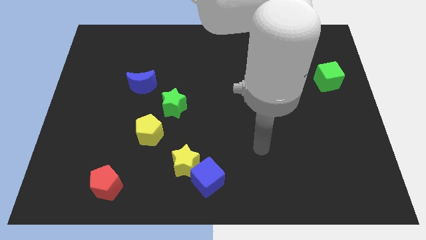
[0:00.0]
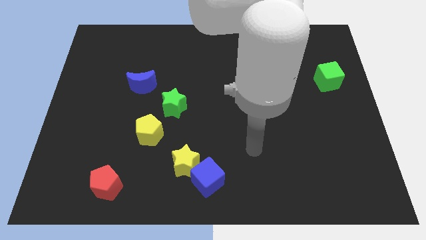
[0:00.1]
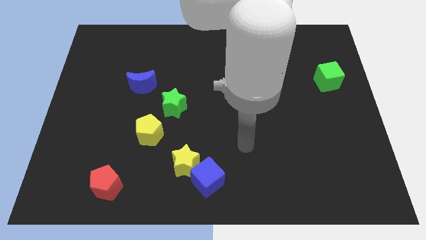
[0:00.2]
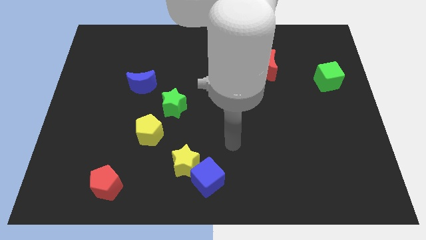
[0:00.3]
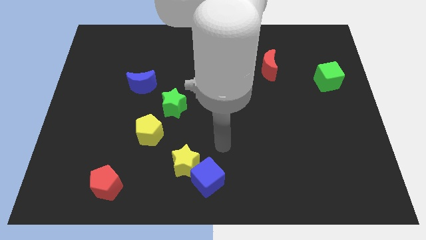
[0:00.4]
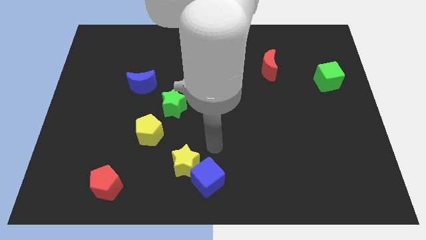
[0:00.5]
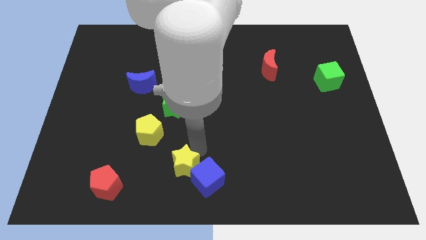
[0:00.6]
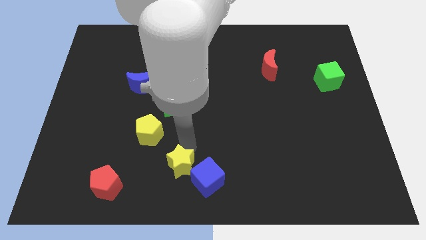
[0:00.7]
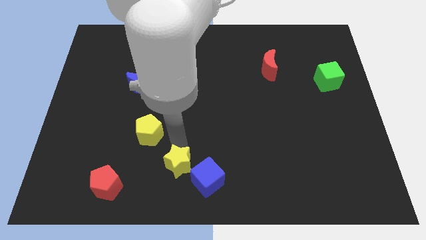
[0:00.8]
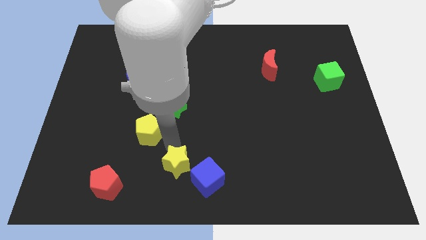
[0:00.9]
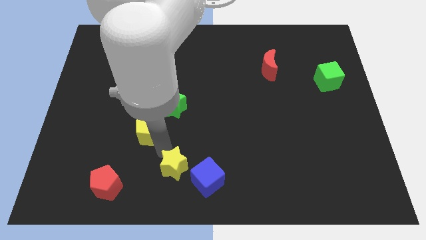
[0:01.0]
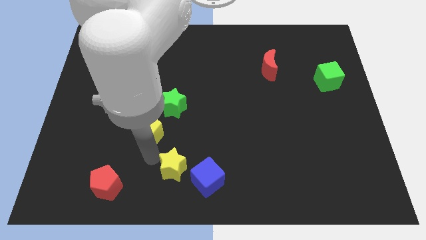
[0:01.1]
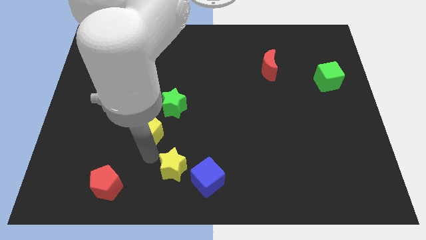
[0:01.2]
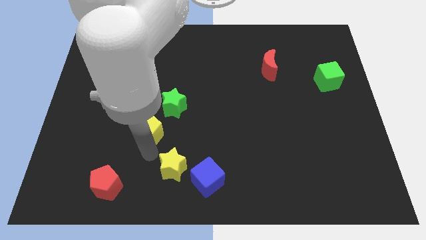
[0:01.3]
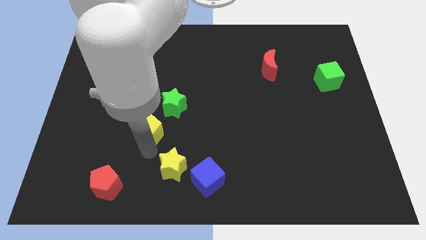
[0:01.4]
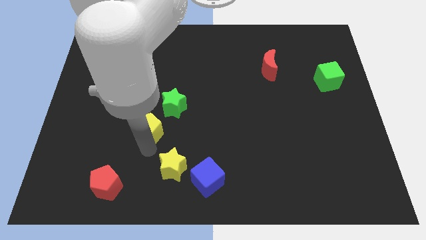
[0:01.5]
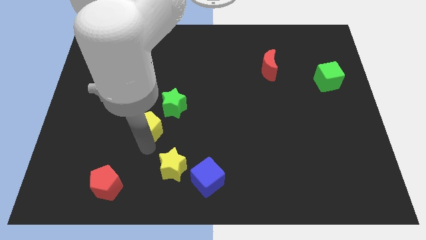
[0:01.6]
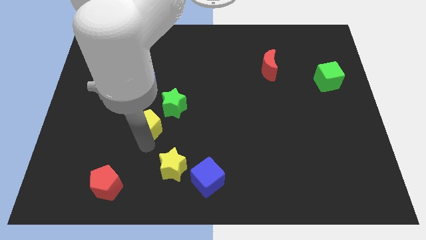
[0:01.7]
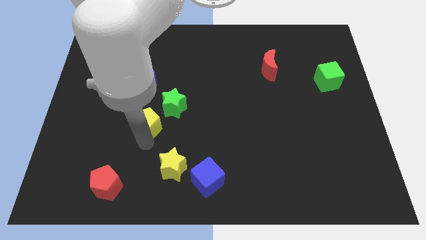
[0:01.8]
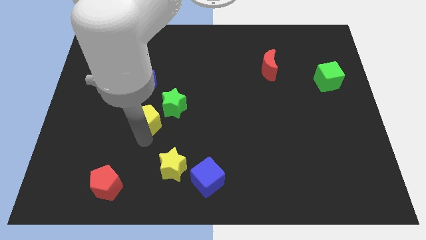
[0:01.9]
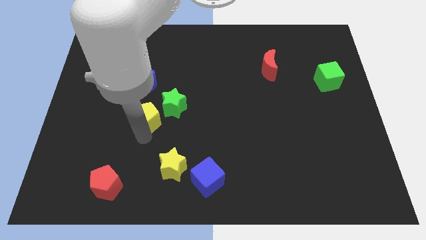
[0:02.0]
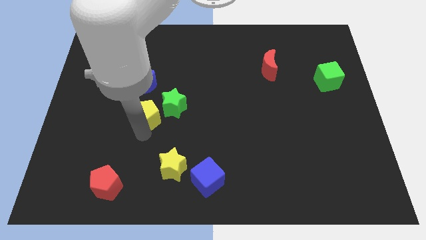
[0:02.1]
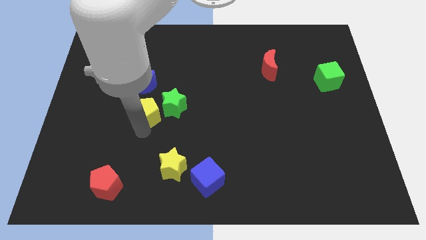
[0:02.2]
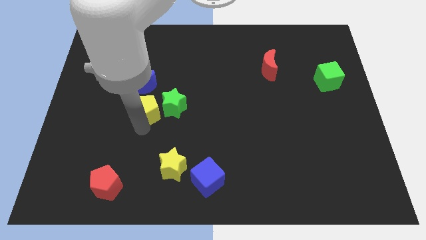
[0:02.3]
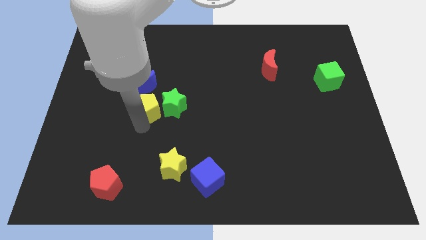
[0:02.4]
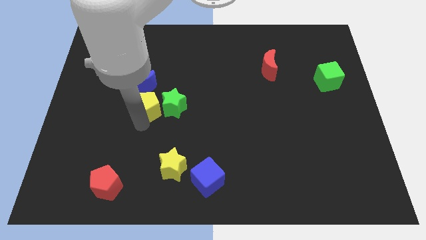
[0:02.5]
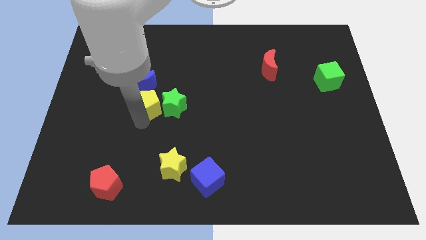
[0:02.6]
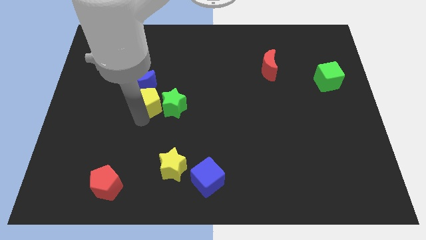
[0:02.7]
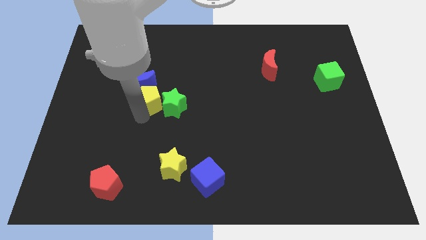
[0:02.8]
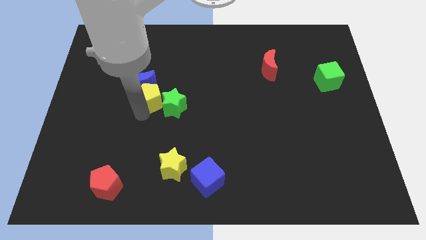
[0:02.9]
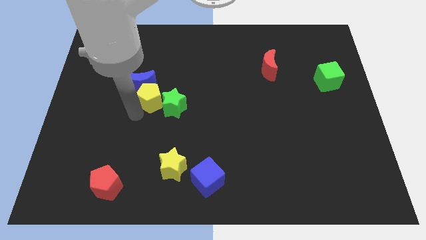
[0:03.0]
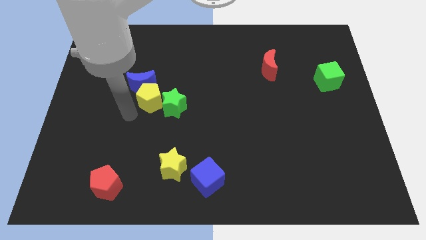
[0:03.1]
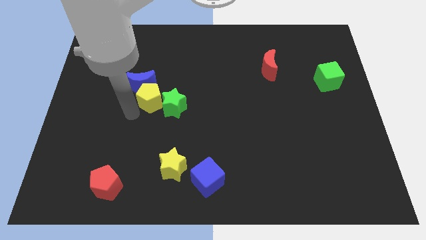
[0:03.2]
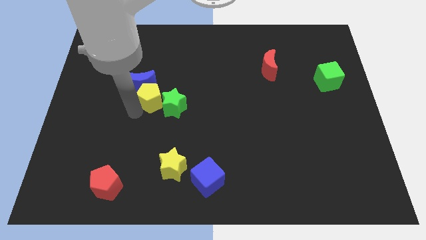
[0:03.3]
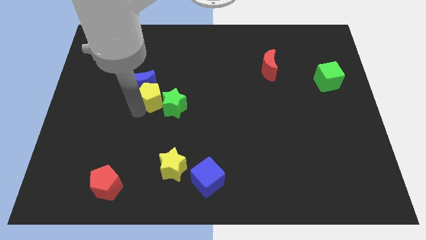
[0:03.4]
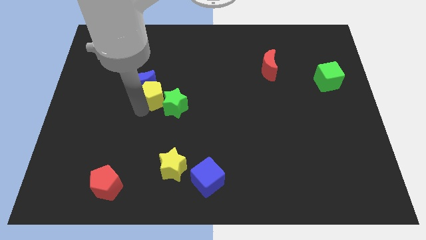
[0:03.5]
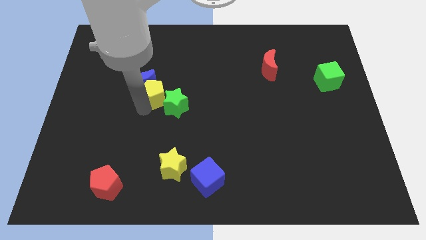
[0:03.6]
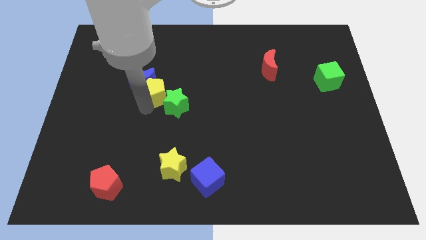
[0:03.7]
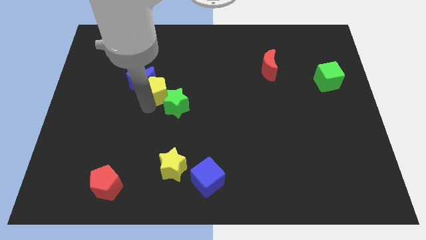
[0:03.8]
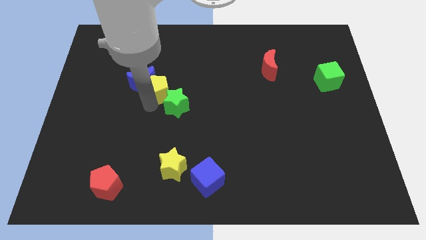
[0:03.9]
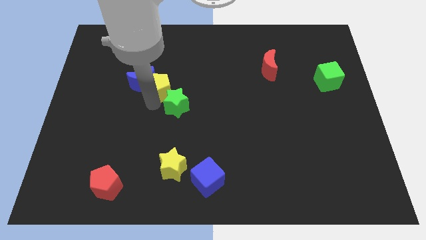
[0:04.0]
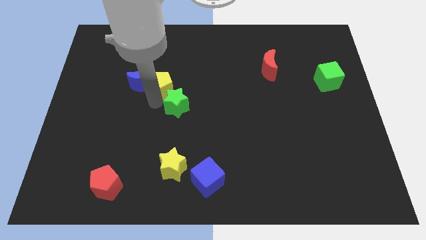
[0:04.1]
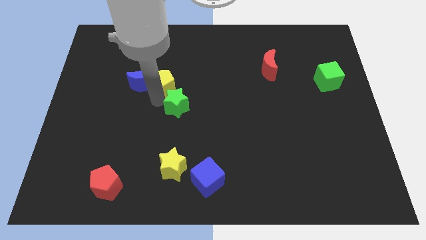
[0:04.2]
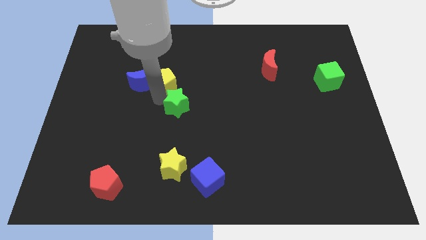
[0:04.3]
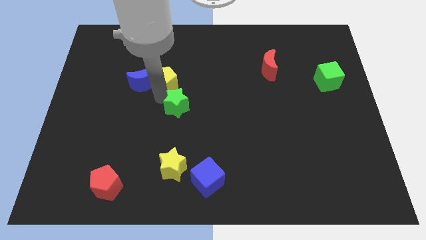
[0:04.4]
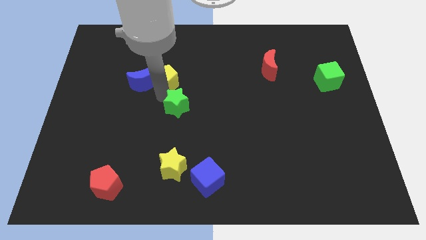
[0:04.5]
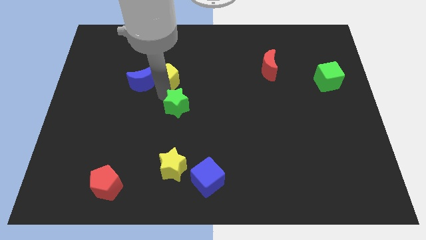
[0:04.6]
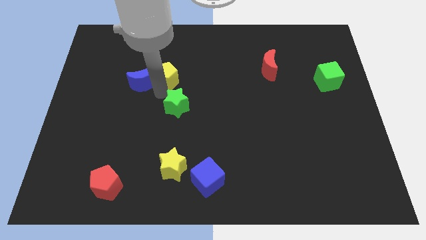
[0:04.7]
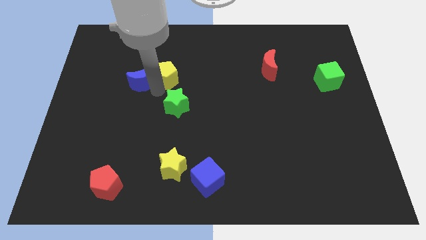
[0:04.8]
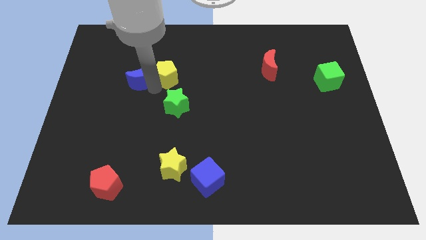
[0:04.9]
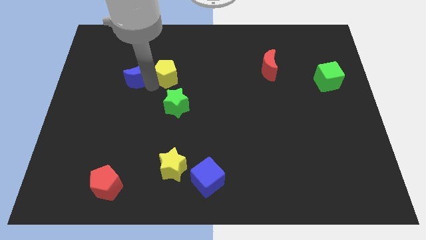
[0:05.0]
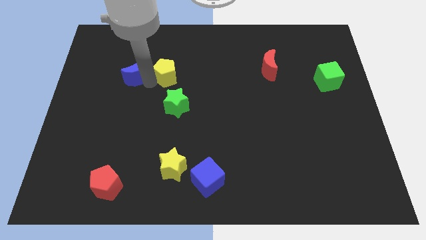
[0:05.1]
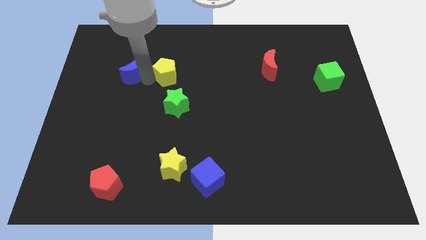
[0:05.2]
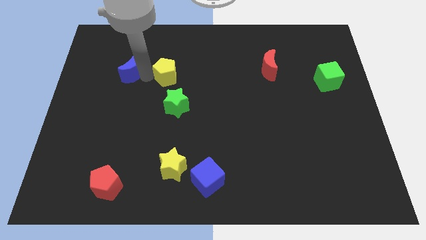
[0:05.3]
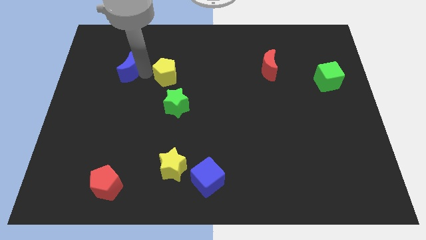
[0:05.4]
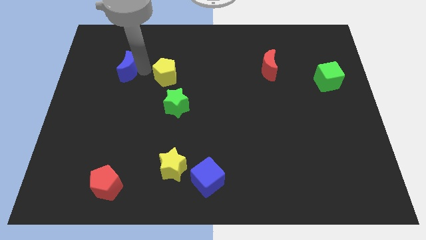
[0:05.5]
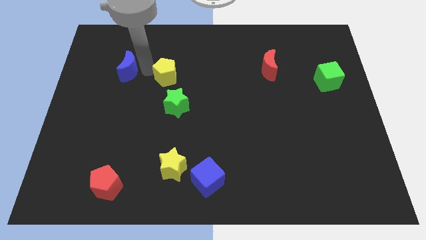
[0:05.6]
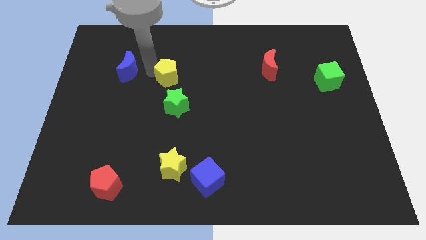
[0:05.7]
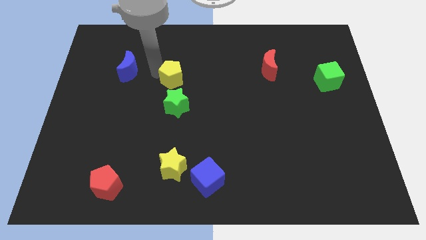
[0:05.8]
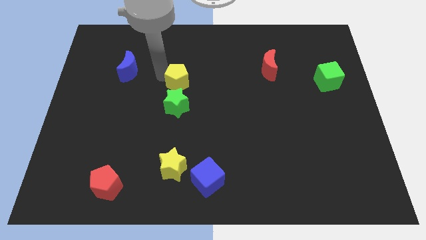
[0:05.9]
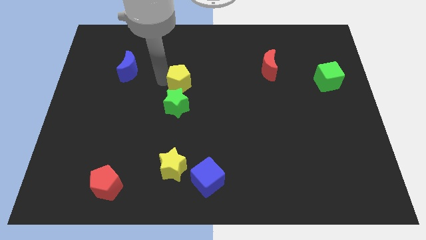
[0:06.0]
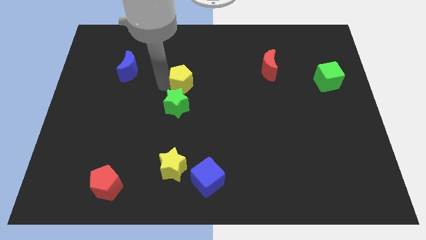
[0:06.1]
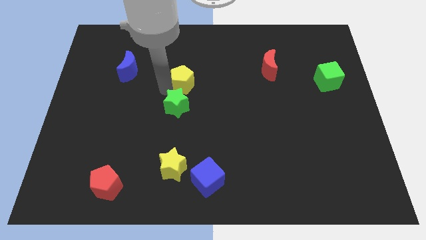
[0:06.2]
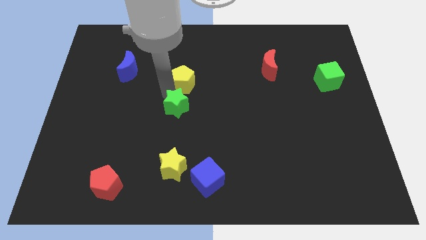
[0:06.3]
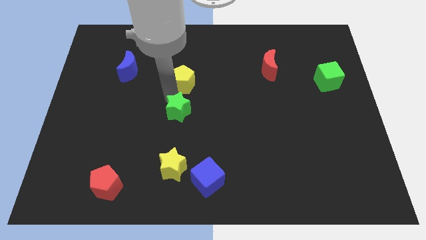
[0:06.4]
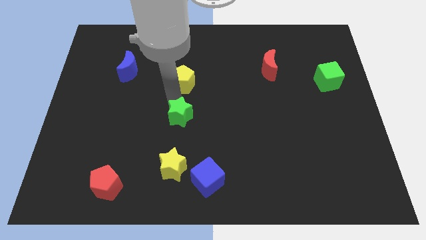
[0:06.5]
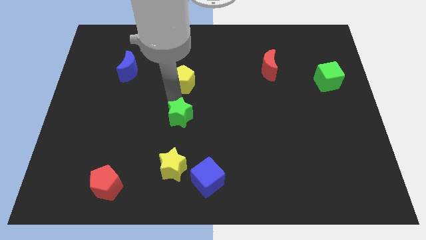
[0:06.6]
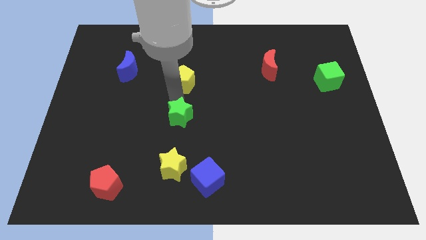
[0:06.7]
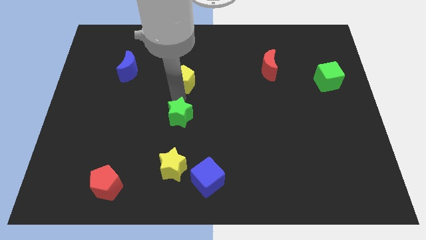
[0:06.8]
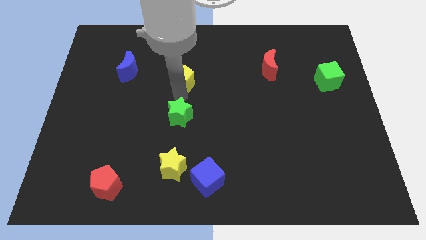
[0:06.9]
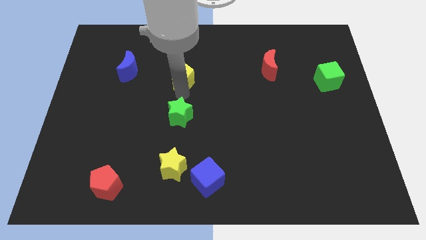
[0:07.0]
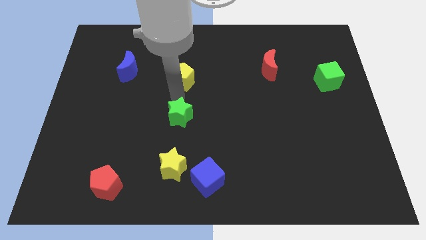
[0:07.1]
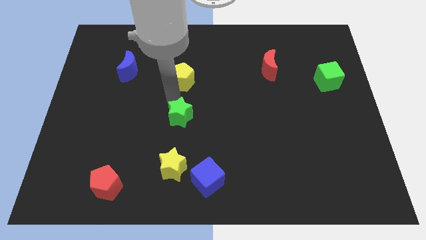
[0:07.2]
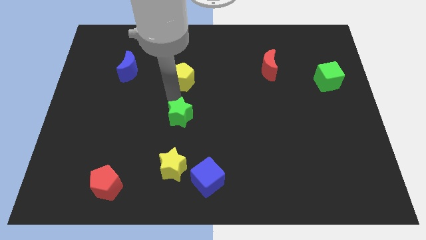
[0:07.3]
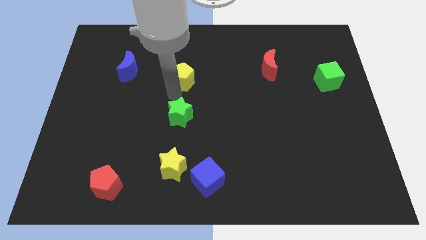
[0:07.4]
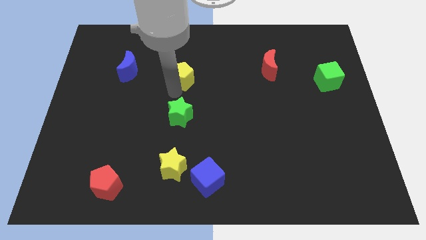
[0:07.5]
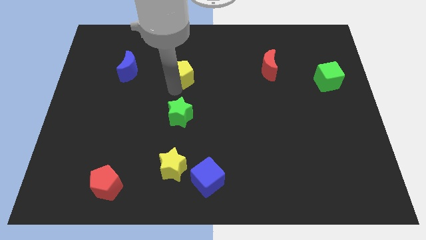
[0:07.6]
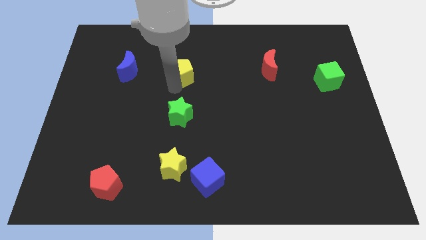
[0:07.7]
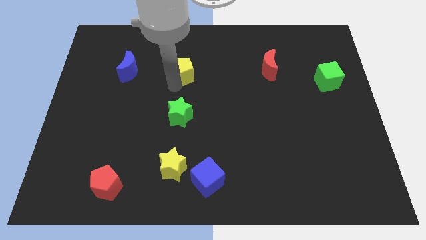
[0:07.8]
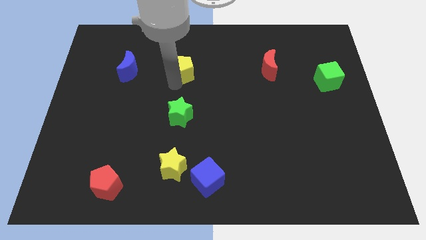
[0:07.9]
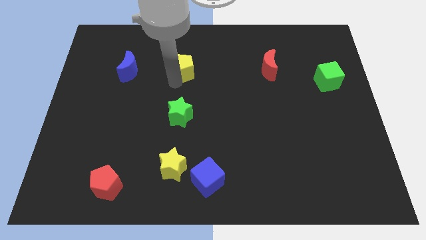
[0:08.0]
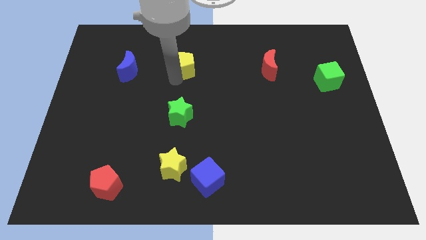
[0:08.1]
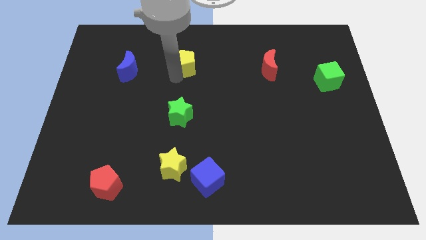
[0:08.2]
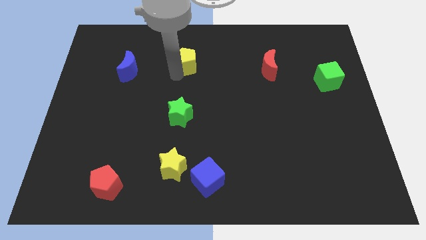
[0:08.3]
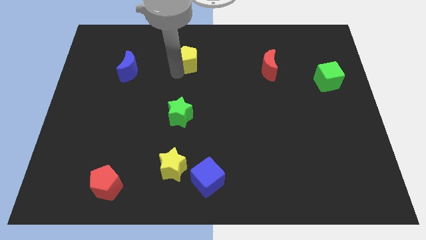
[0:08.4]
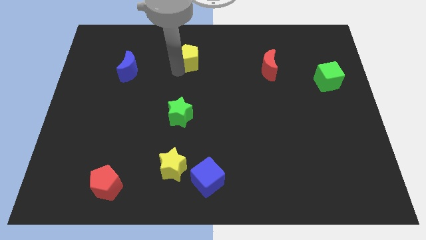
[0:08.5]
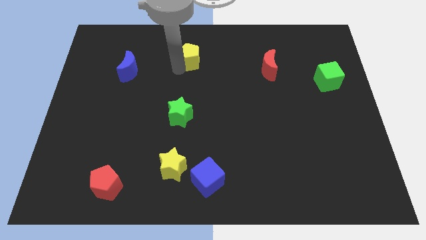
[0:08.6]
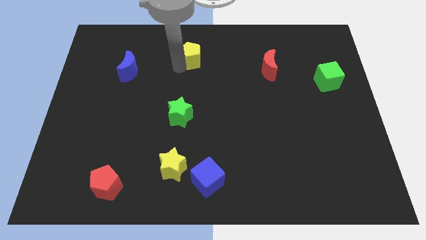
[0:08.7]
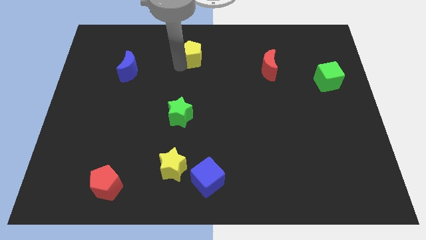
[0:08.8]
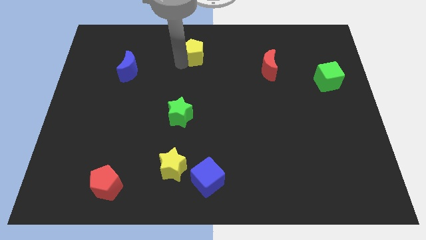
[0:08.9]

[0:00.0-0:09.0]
move the yellow pentagon to the top
